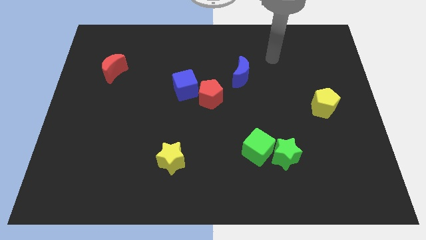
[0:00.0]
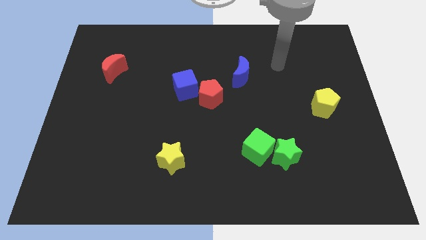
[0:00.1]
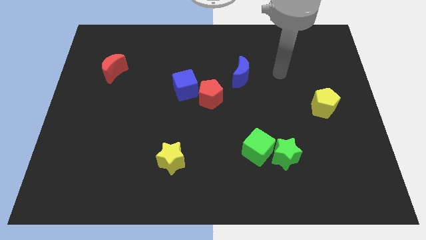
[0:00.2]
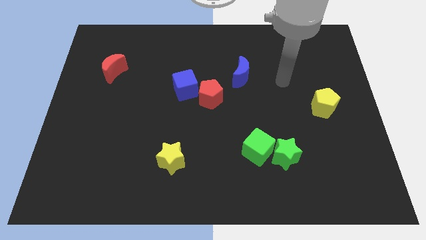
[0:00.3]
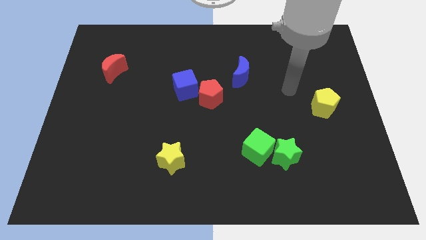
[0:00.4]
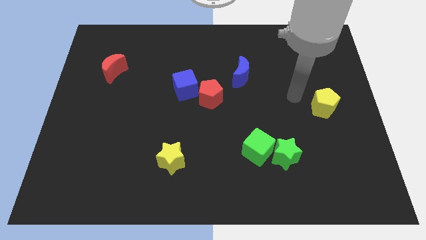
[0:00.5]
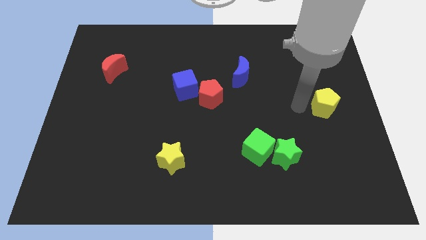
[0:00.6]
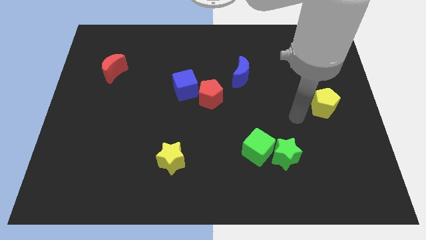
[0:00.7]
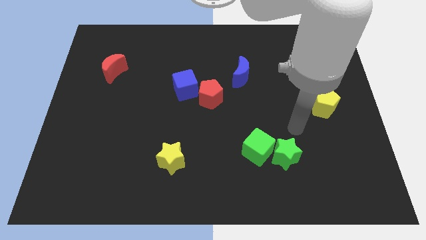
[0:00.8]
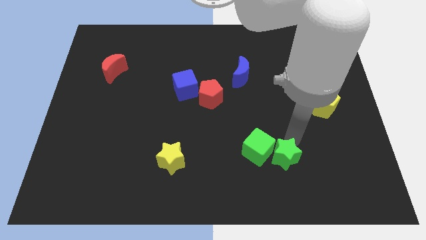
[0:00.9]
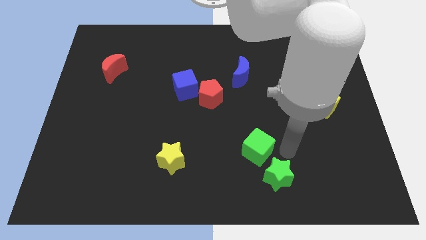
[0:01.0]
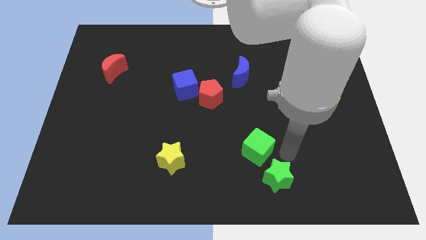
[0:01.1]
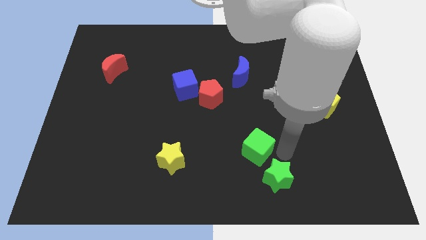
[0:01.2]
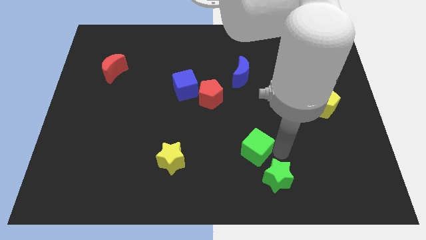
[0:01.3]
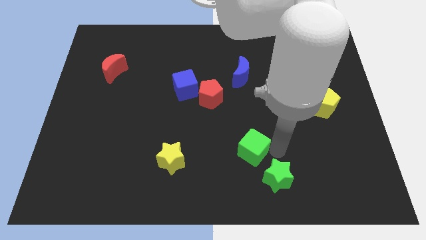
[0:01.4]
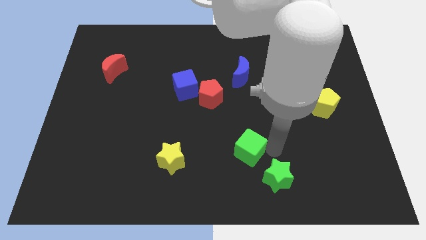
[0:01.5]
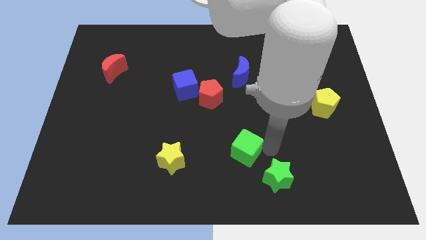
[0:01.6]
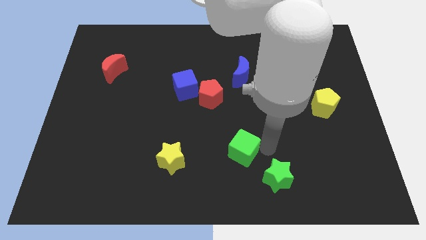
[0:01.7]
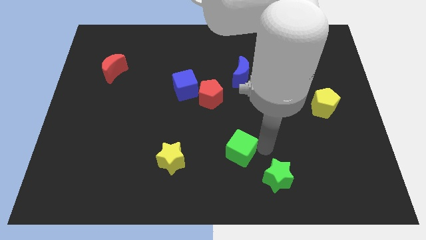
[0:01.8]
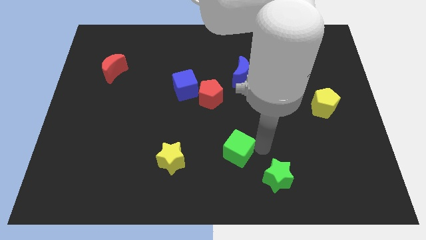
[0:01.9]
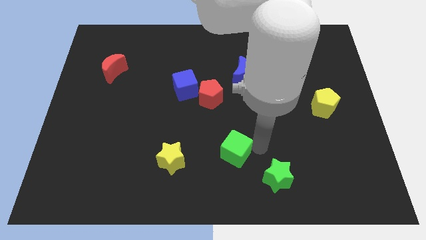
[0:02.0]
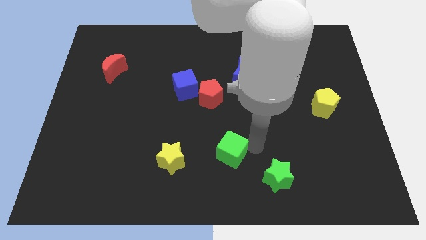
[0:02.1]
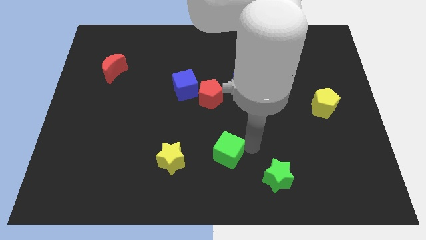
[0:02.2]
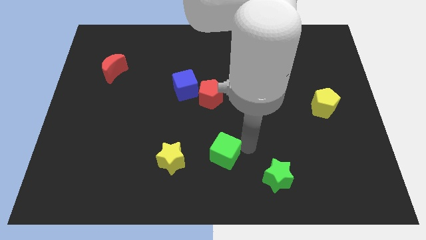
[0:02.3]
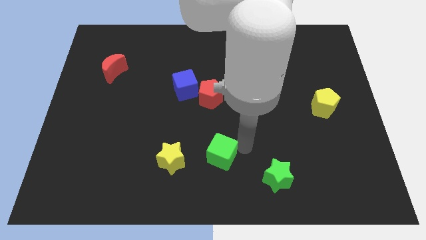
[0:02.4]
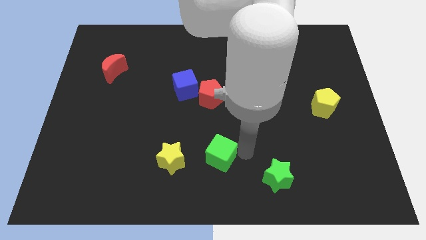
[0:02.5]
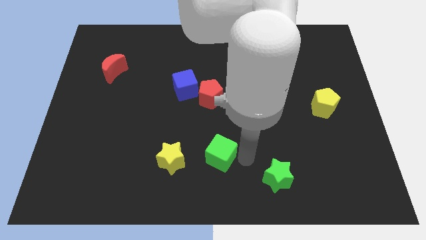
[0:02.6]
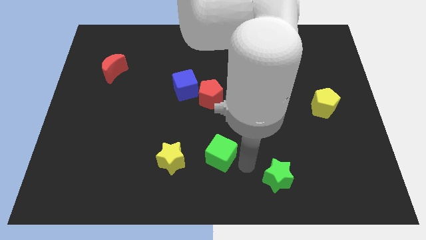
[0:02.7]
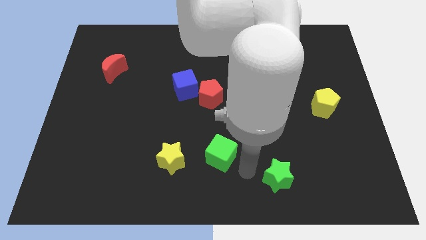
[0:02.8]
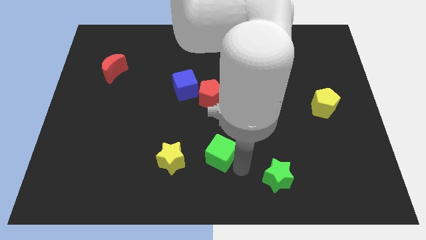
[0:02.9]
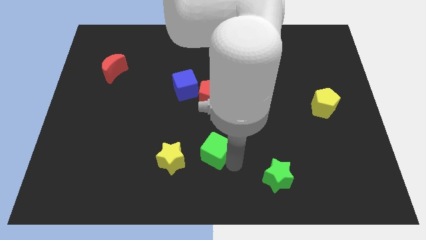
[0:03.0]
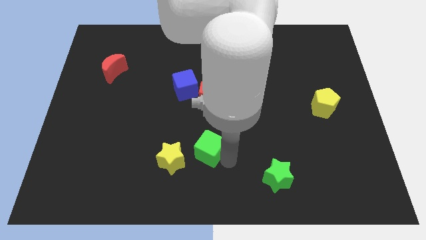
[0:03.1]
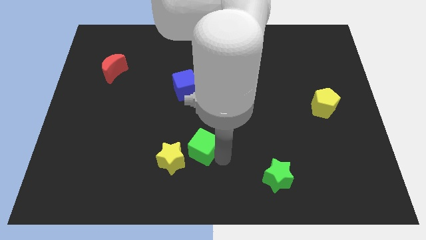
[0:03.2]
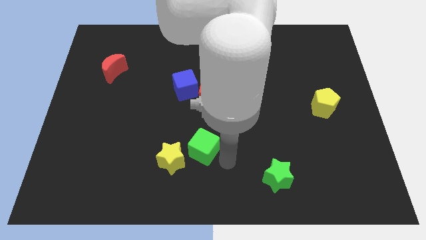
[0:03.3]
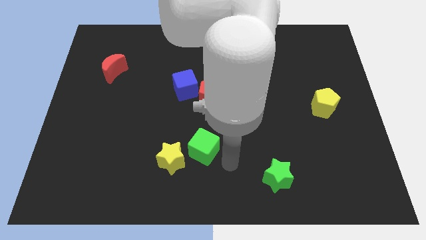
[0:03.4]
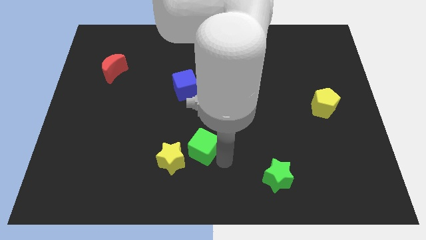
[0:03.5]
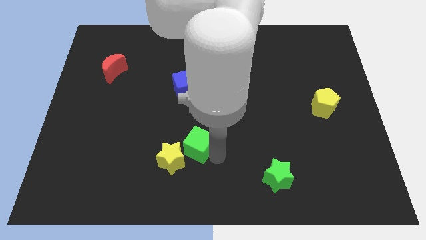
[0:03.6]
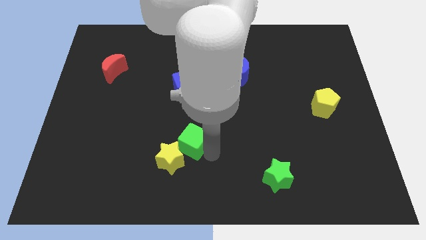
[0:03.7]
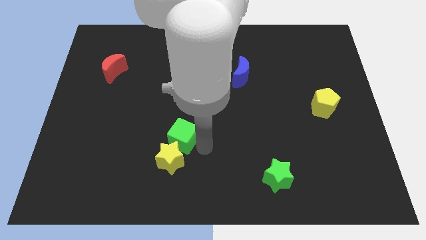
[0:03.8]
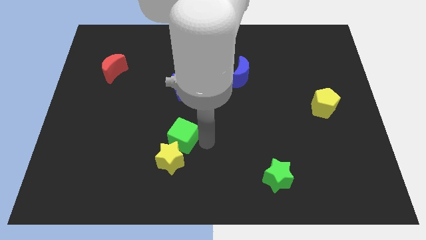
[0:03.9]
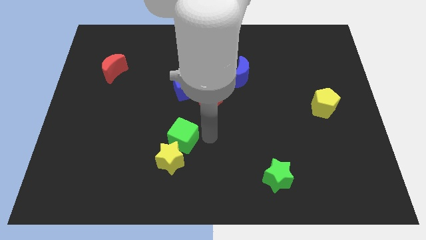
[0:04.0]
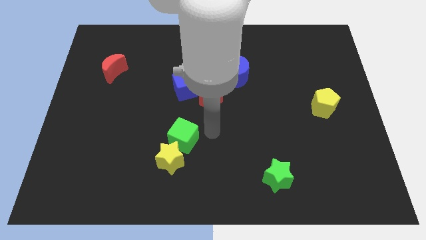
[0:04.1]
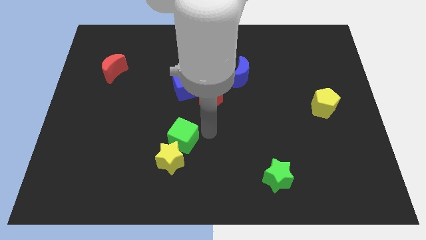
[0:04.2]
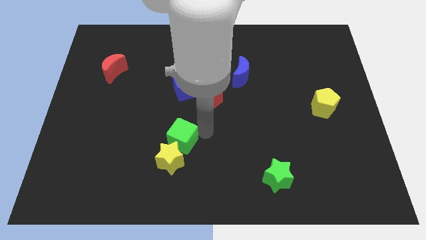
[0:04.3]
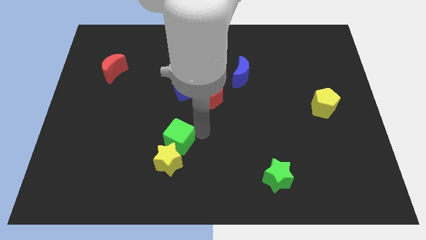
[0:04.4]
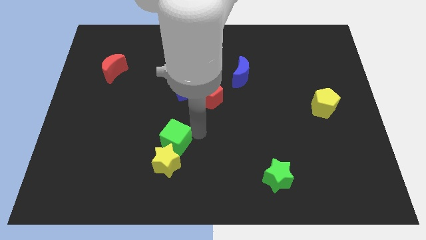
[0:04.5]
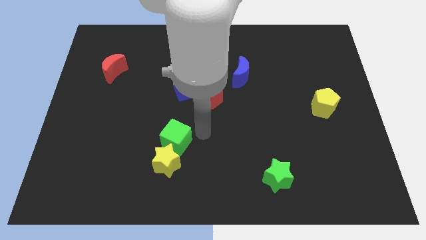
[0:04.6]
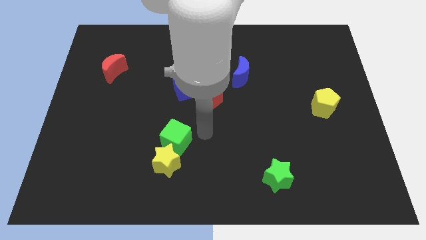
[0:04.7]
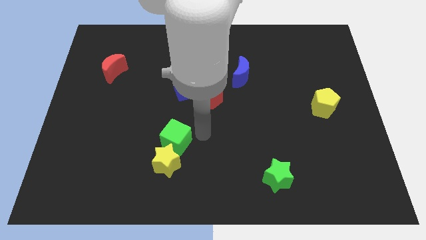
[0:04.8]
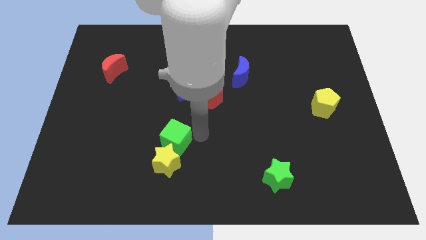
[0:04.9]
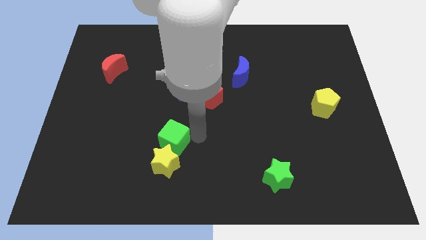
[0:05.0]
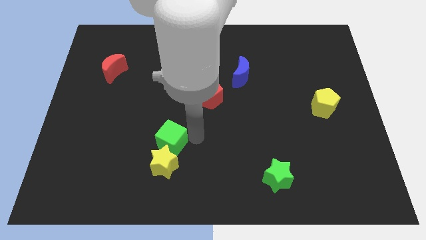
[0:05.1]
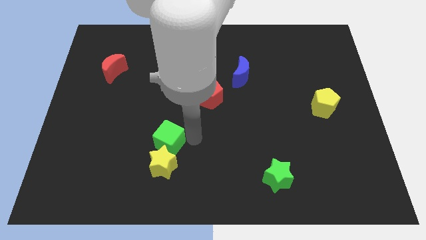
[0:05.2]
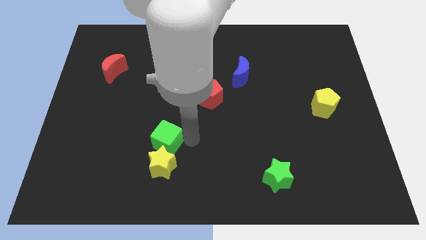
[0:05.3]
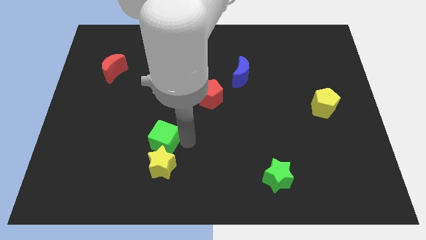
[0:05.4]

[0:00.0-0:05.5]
move the green cube left

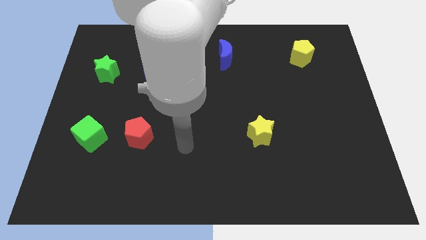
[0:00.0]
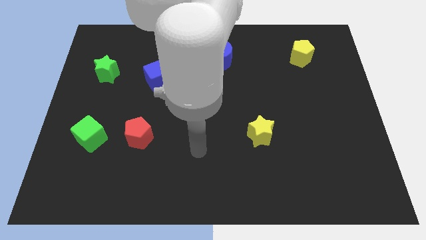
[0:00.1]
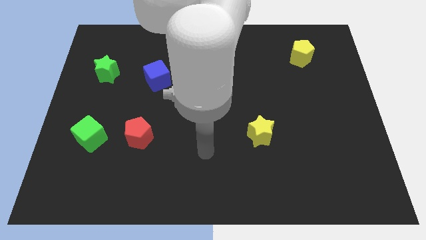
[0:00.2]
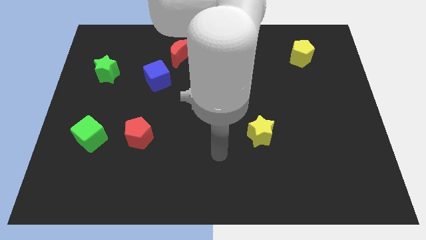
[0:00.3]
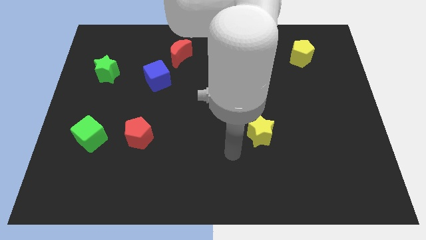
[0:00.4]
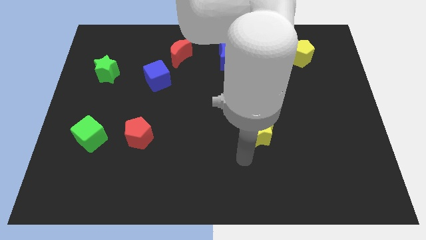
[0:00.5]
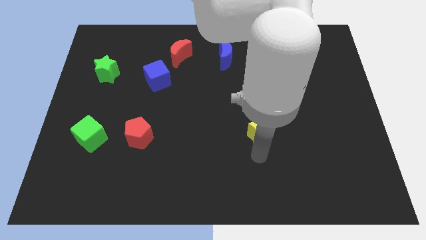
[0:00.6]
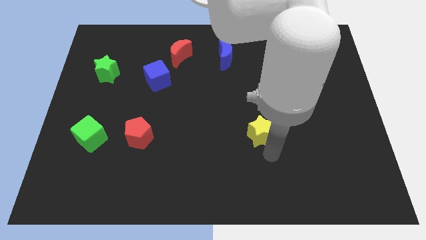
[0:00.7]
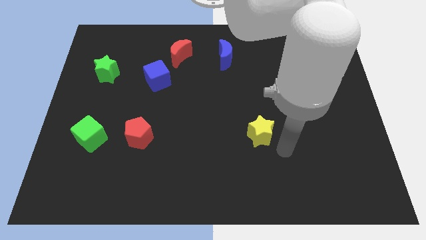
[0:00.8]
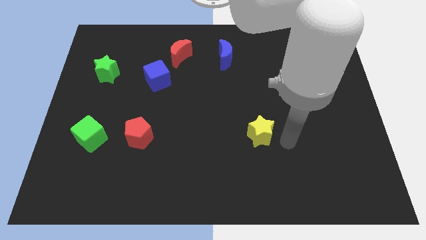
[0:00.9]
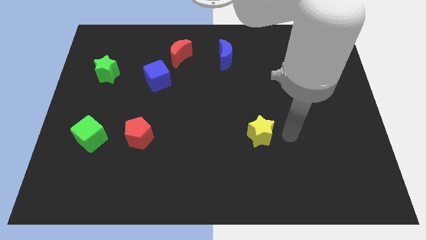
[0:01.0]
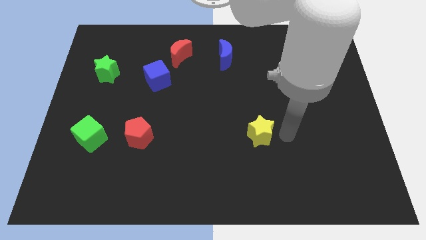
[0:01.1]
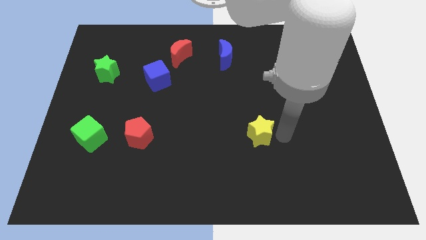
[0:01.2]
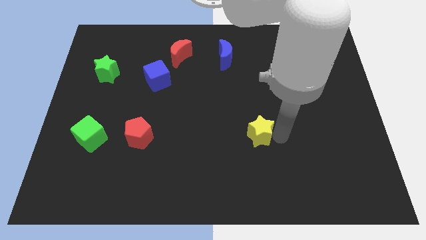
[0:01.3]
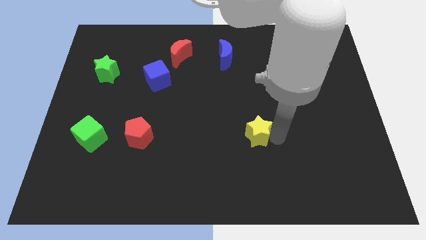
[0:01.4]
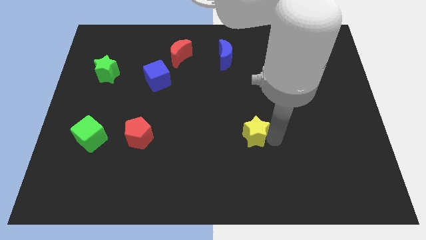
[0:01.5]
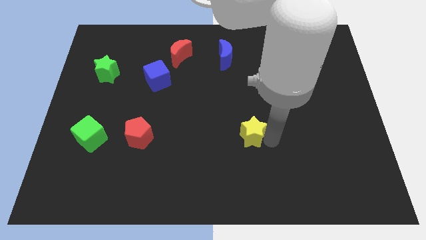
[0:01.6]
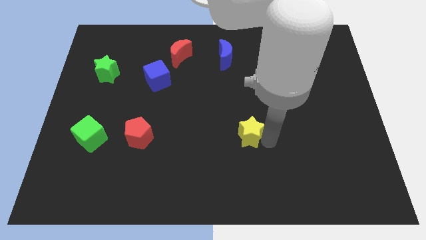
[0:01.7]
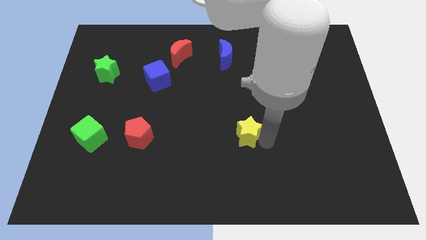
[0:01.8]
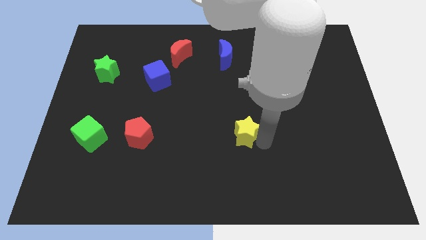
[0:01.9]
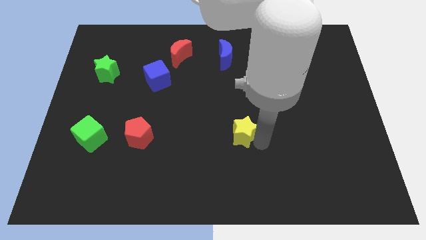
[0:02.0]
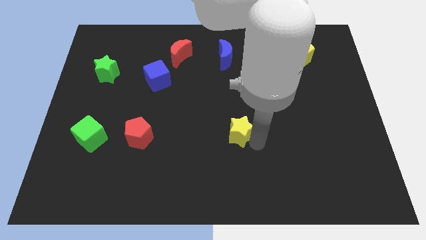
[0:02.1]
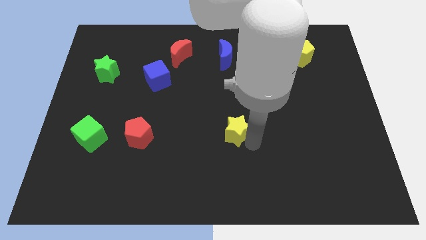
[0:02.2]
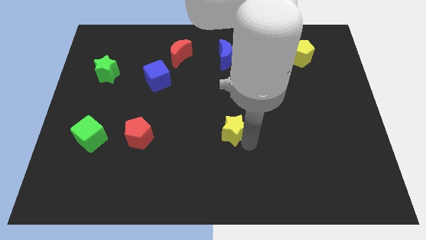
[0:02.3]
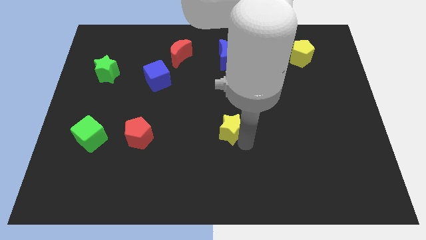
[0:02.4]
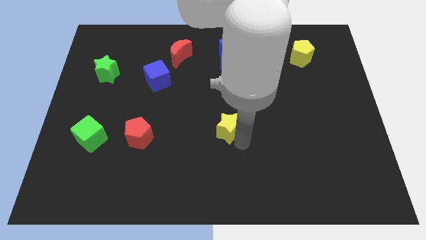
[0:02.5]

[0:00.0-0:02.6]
move the yellow star to the left somewhat
